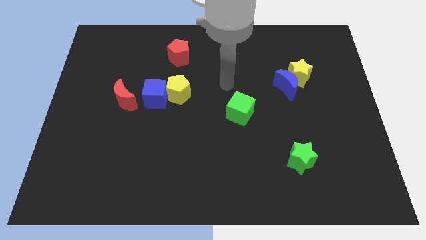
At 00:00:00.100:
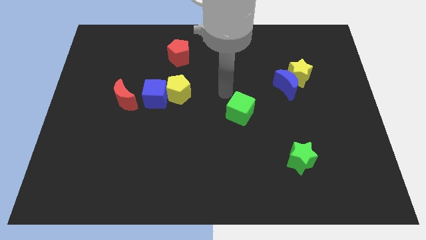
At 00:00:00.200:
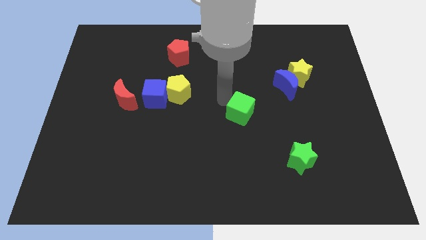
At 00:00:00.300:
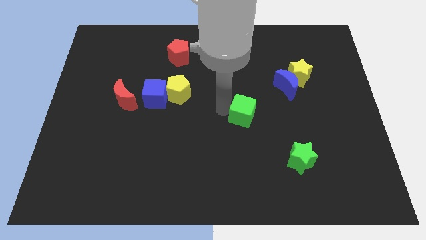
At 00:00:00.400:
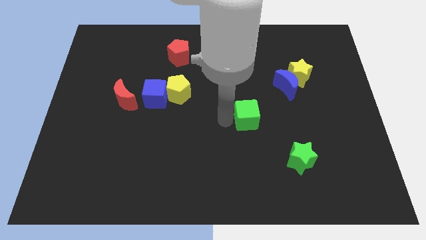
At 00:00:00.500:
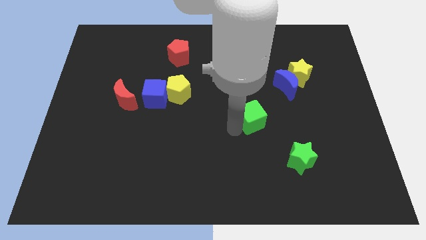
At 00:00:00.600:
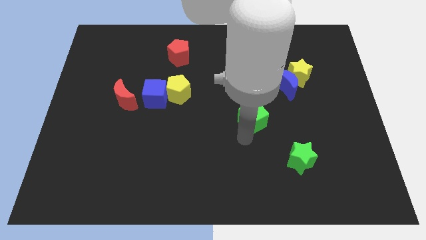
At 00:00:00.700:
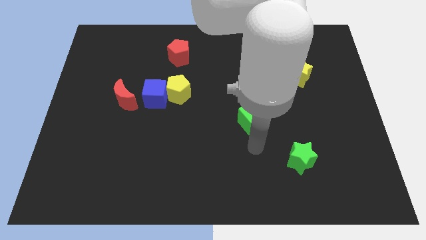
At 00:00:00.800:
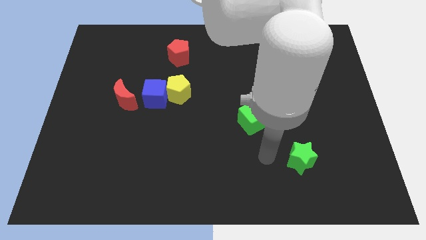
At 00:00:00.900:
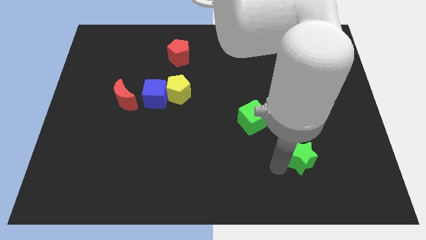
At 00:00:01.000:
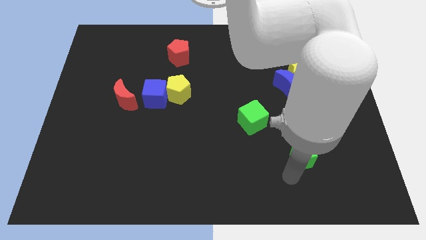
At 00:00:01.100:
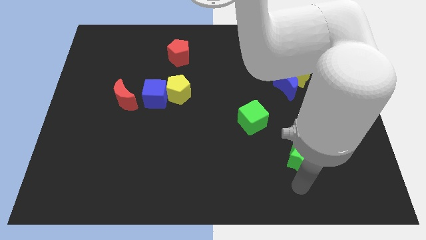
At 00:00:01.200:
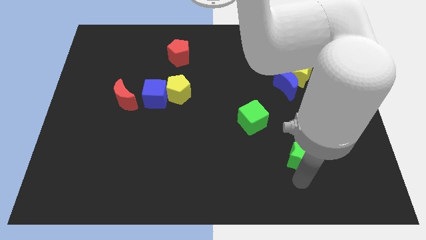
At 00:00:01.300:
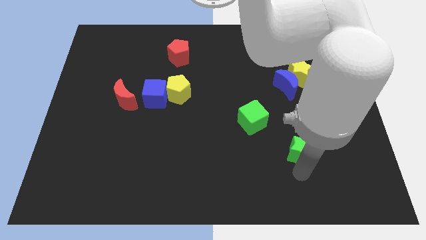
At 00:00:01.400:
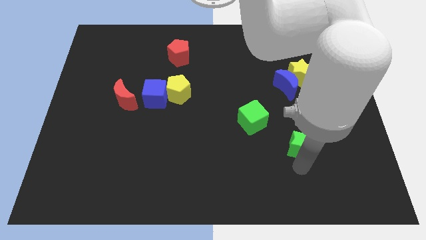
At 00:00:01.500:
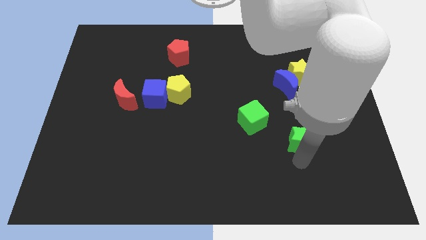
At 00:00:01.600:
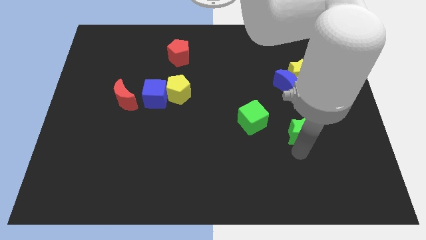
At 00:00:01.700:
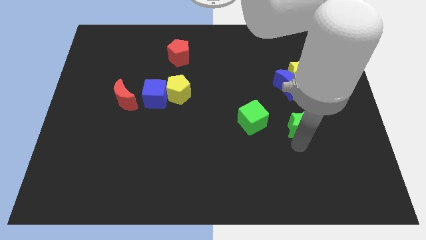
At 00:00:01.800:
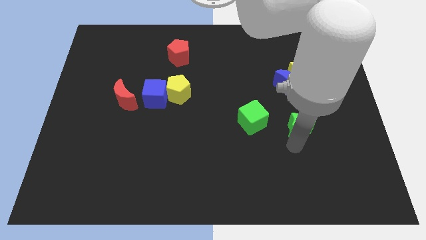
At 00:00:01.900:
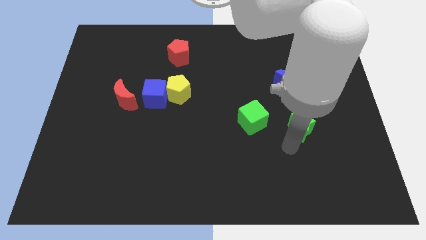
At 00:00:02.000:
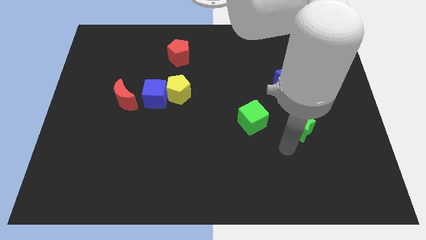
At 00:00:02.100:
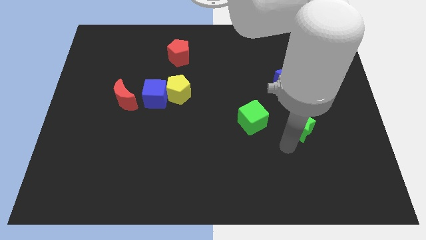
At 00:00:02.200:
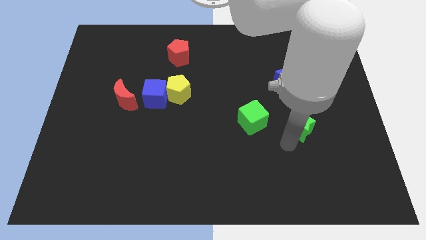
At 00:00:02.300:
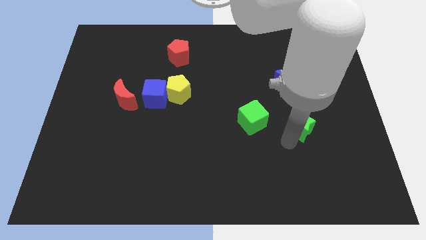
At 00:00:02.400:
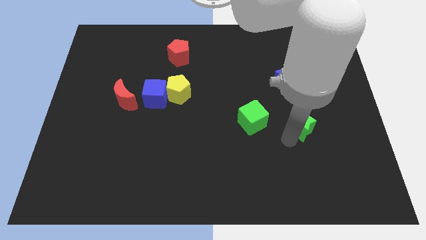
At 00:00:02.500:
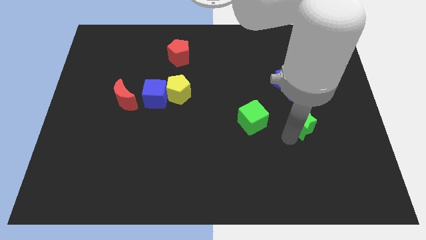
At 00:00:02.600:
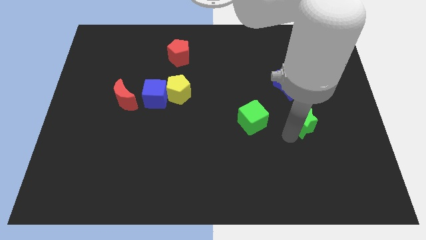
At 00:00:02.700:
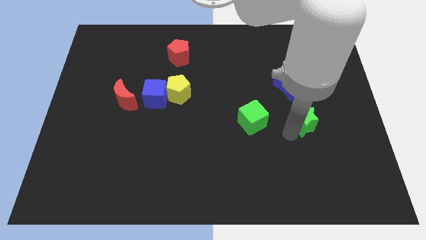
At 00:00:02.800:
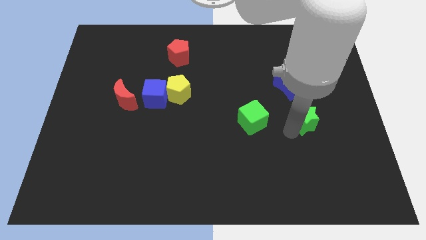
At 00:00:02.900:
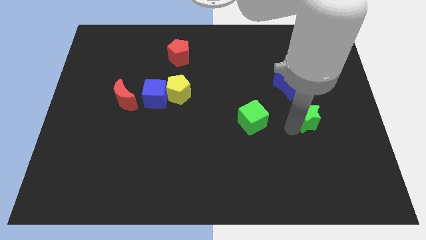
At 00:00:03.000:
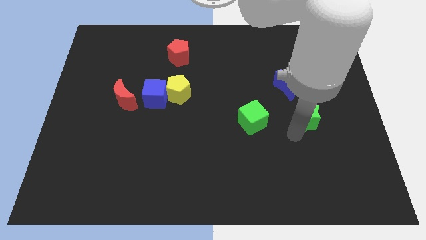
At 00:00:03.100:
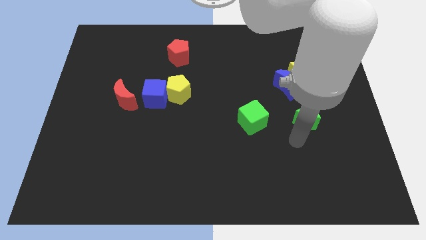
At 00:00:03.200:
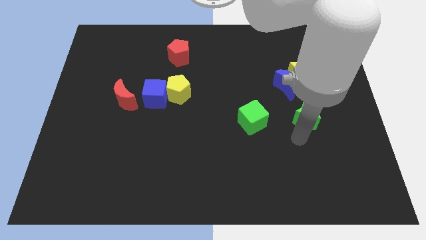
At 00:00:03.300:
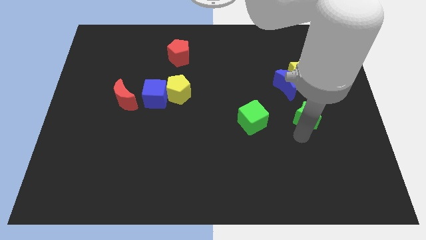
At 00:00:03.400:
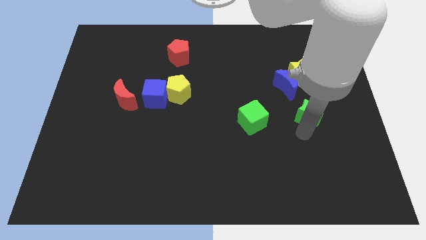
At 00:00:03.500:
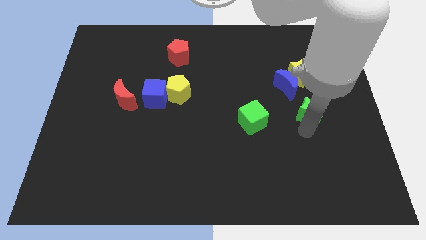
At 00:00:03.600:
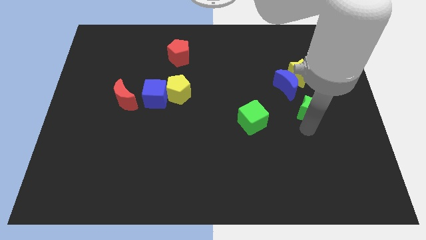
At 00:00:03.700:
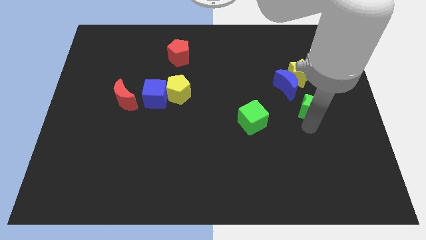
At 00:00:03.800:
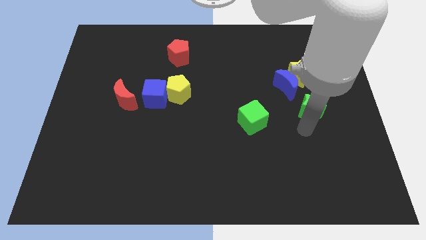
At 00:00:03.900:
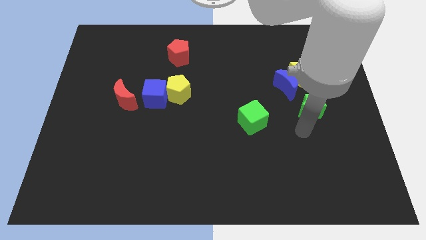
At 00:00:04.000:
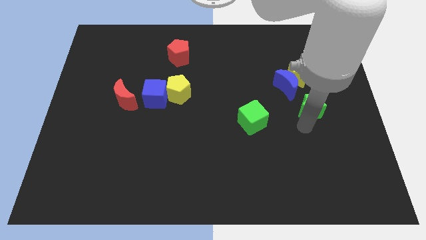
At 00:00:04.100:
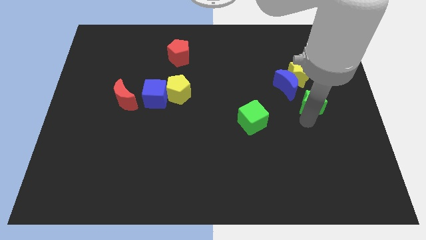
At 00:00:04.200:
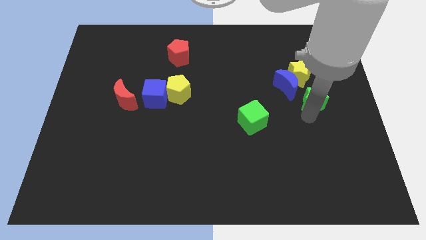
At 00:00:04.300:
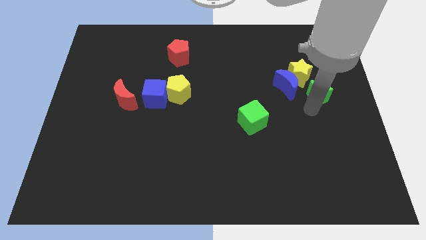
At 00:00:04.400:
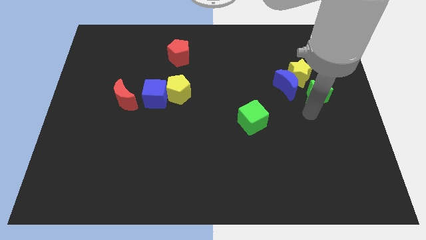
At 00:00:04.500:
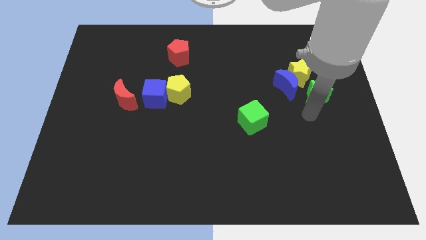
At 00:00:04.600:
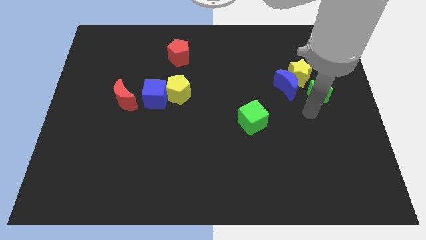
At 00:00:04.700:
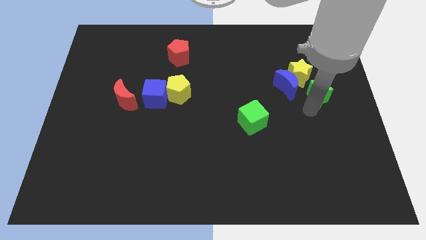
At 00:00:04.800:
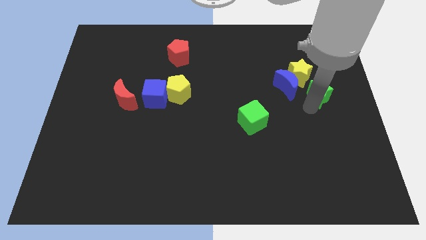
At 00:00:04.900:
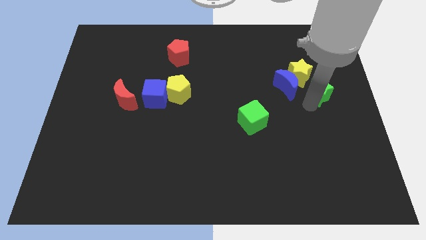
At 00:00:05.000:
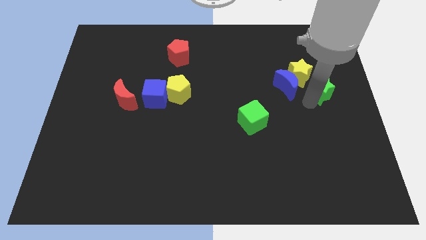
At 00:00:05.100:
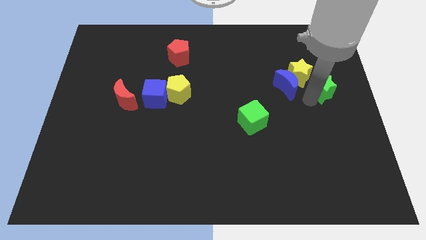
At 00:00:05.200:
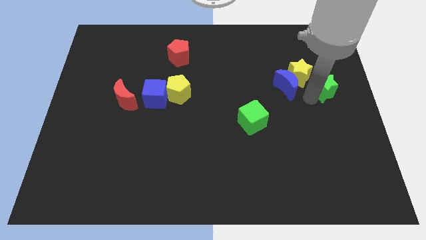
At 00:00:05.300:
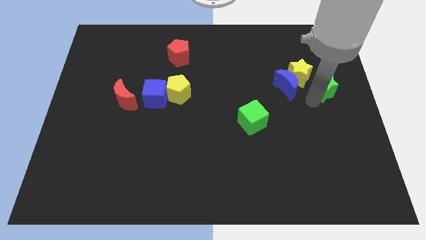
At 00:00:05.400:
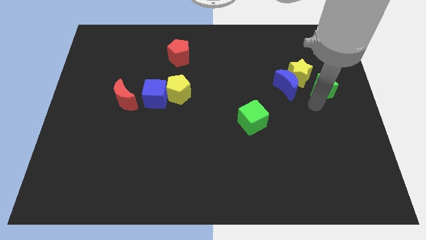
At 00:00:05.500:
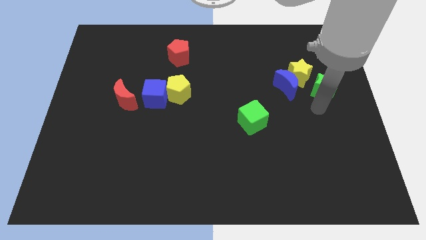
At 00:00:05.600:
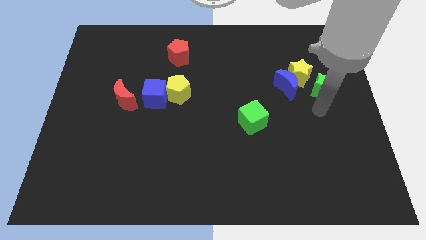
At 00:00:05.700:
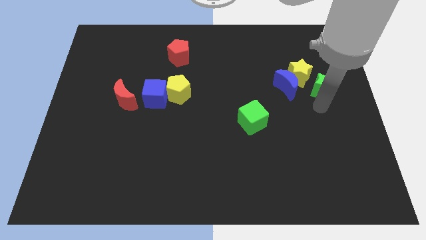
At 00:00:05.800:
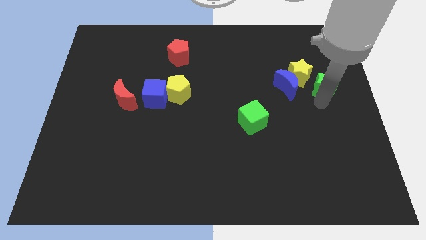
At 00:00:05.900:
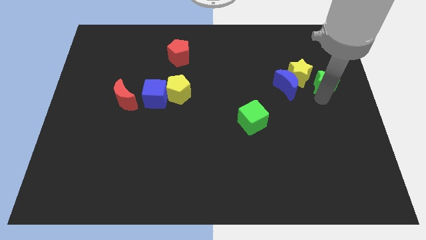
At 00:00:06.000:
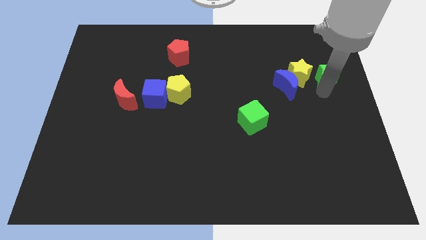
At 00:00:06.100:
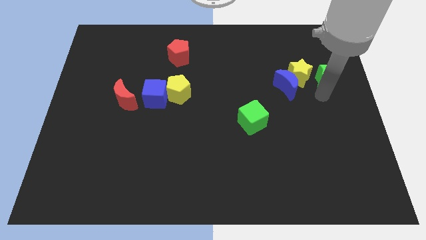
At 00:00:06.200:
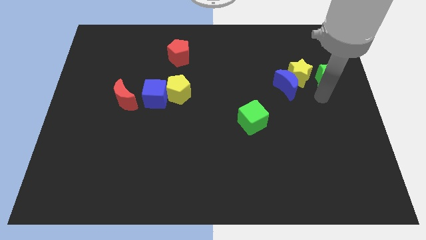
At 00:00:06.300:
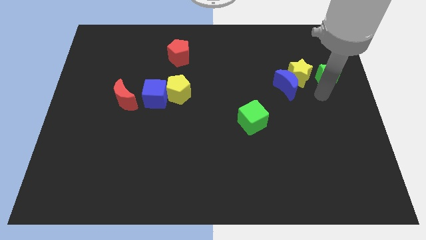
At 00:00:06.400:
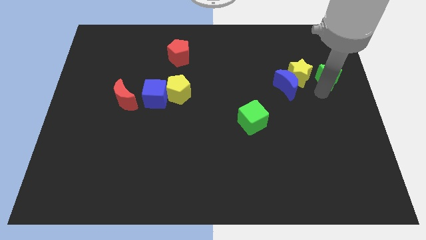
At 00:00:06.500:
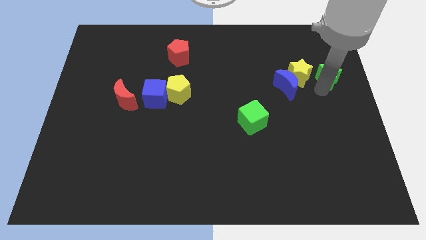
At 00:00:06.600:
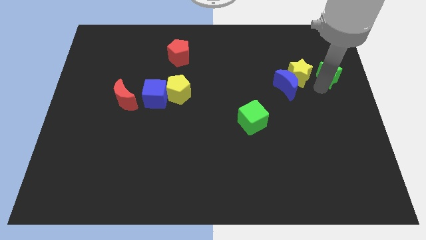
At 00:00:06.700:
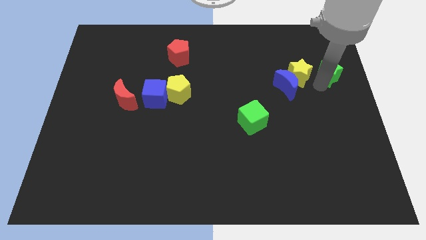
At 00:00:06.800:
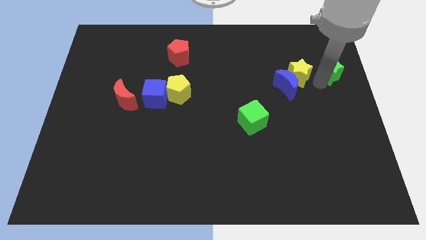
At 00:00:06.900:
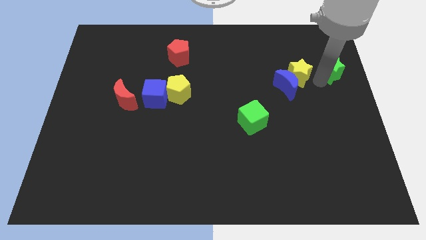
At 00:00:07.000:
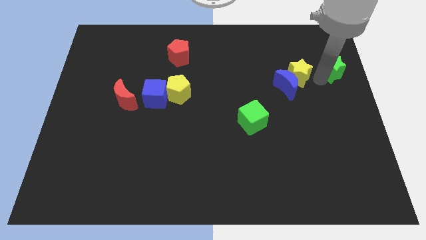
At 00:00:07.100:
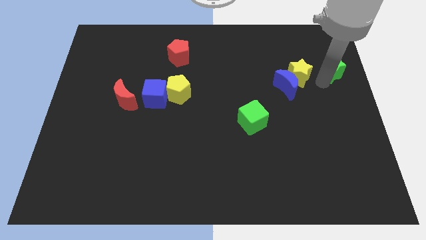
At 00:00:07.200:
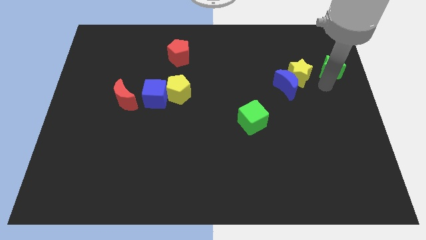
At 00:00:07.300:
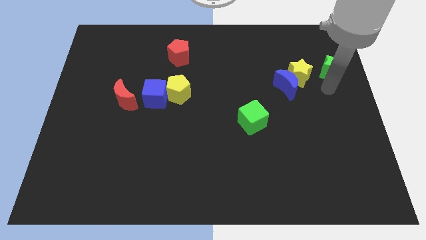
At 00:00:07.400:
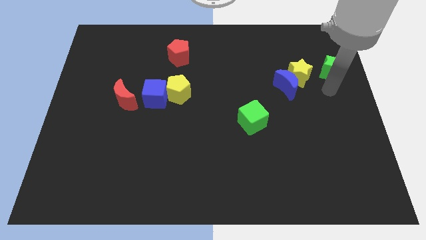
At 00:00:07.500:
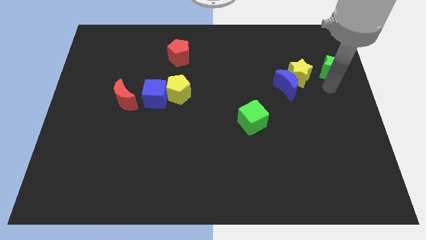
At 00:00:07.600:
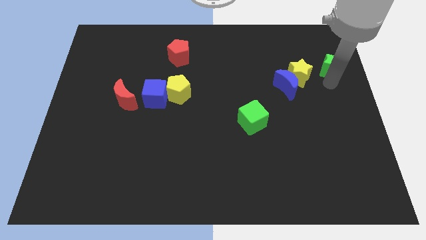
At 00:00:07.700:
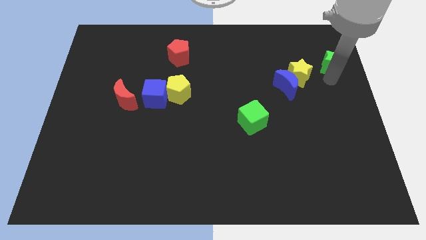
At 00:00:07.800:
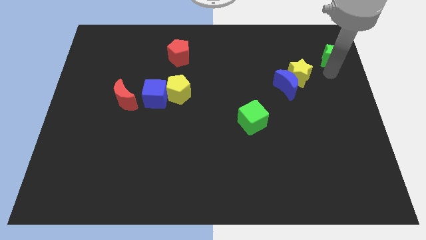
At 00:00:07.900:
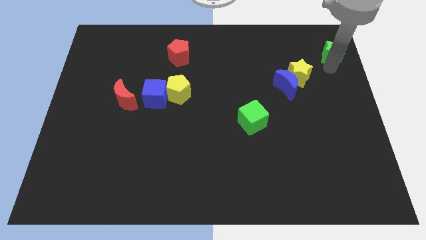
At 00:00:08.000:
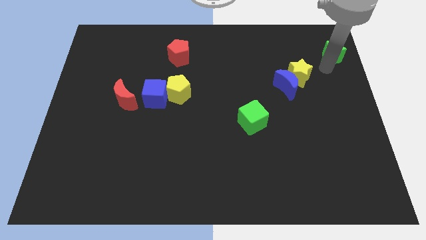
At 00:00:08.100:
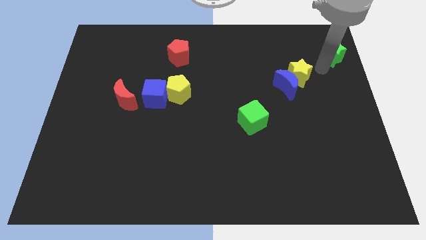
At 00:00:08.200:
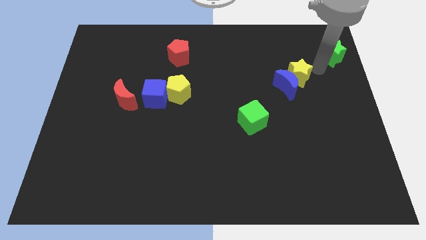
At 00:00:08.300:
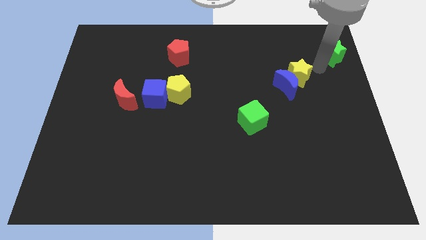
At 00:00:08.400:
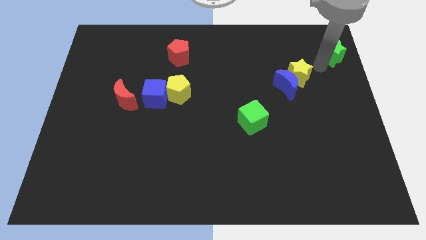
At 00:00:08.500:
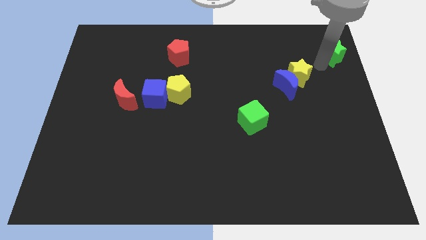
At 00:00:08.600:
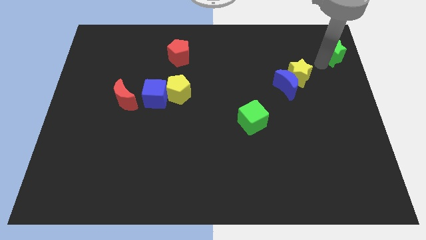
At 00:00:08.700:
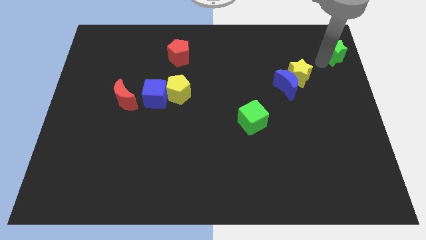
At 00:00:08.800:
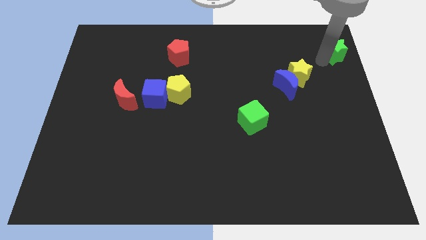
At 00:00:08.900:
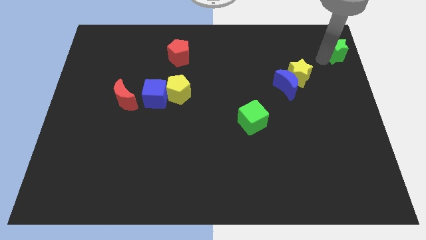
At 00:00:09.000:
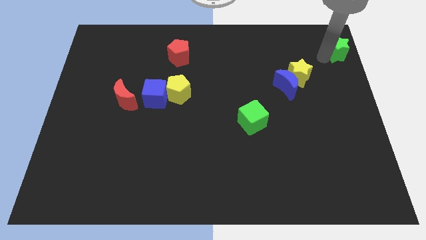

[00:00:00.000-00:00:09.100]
move the green star to the top right of the board
